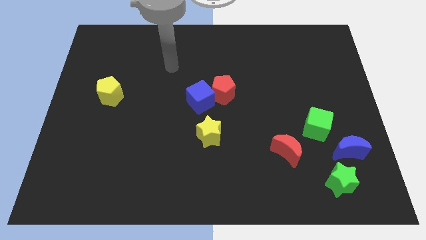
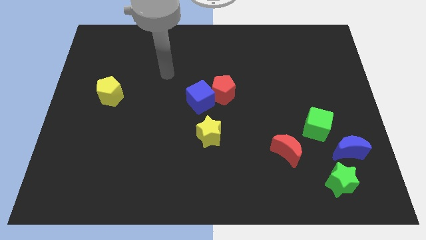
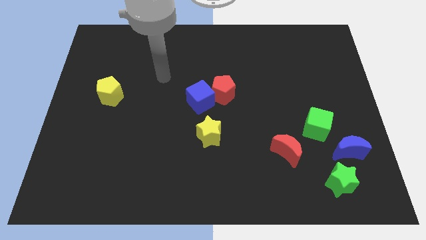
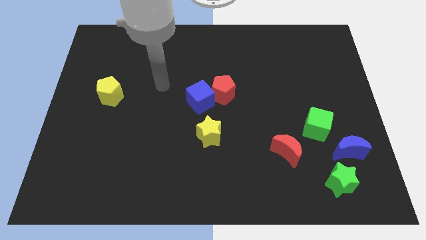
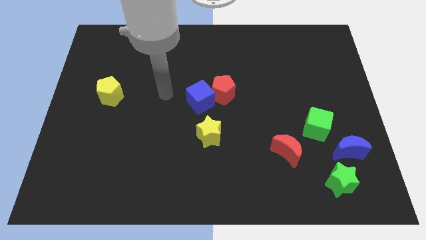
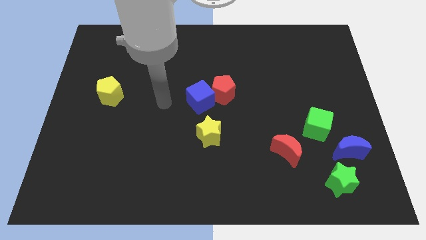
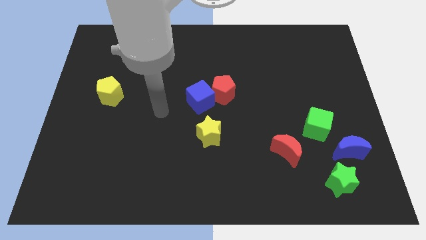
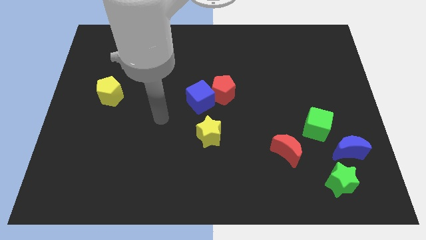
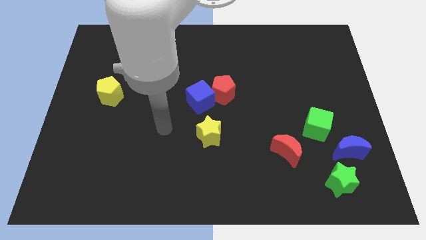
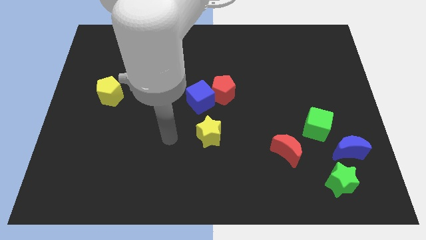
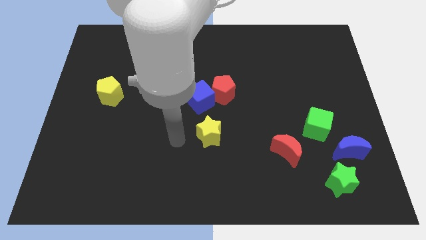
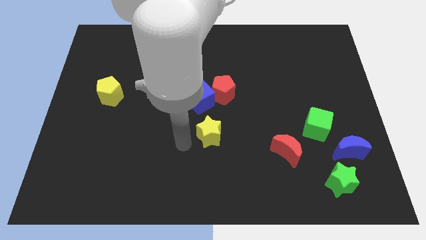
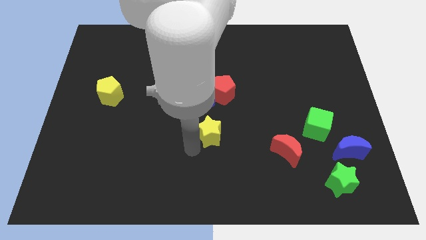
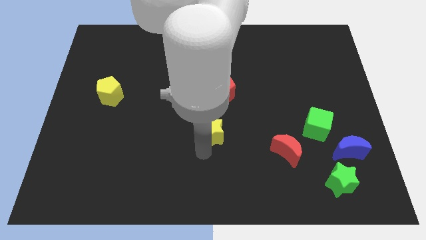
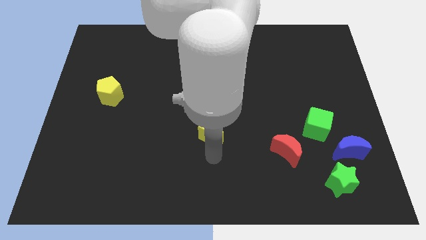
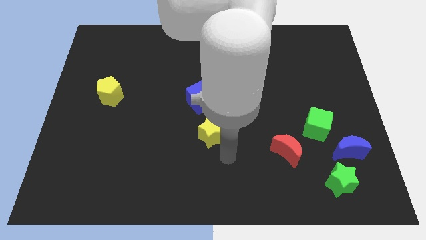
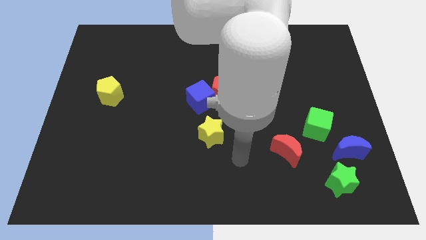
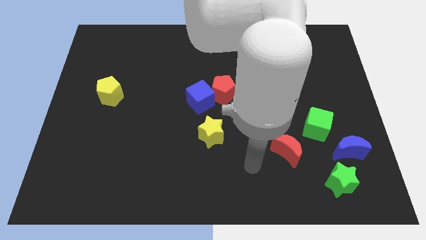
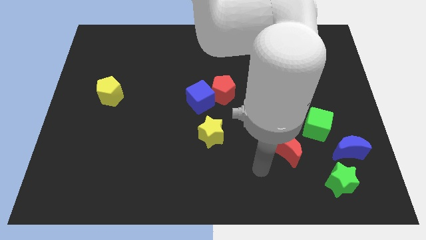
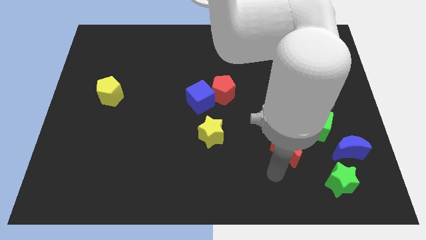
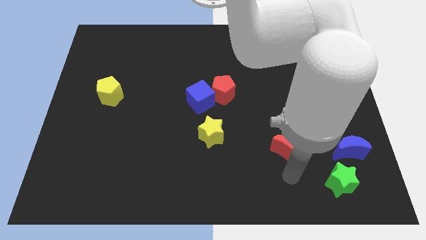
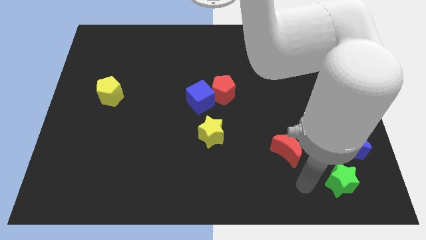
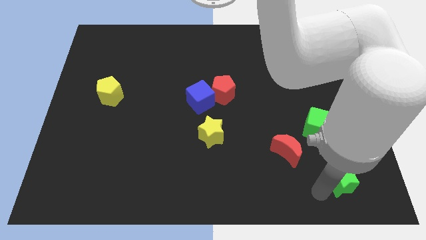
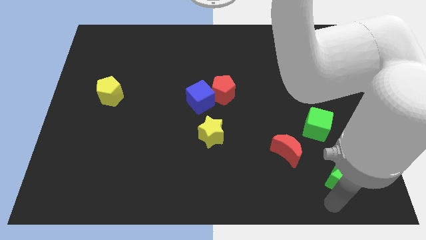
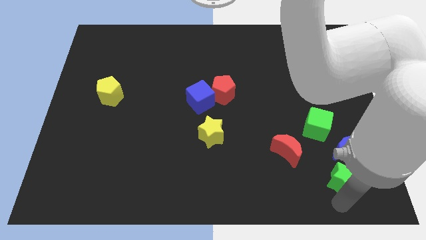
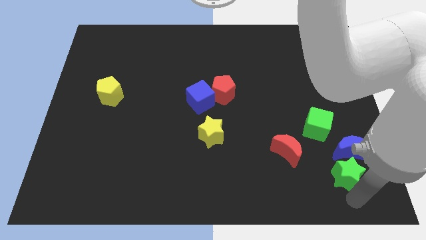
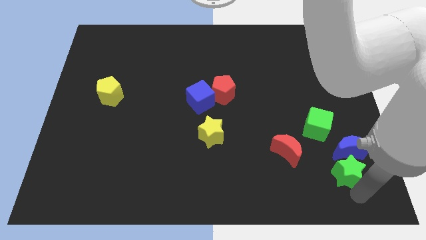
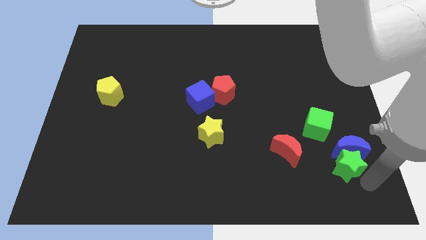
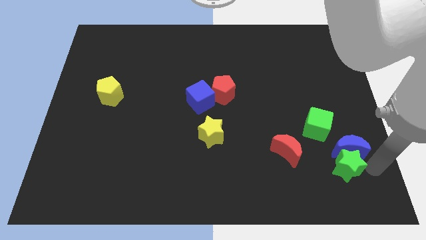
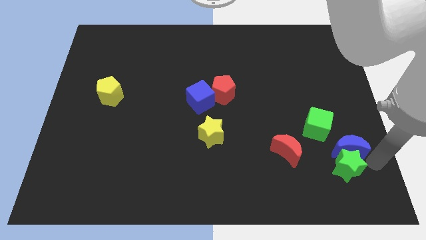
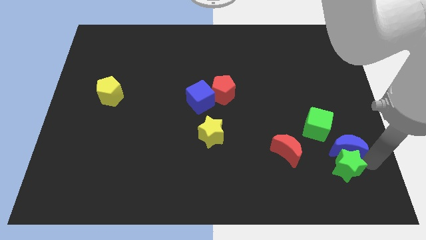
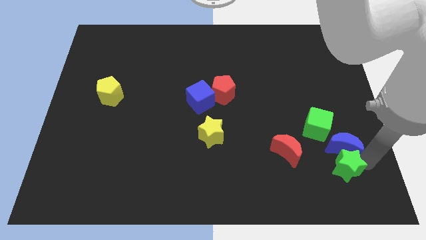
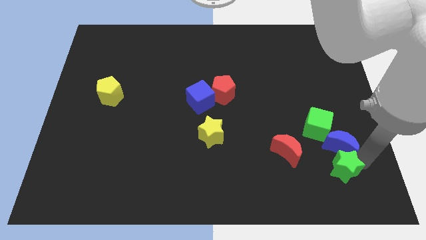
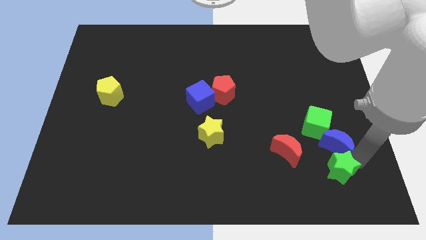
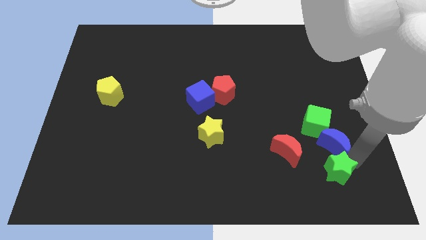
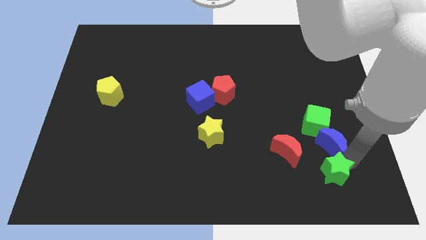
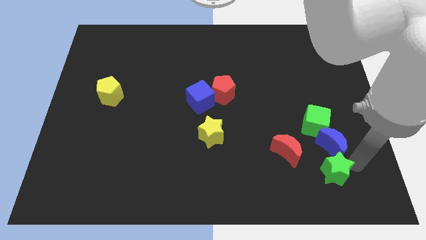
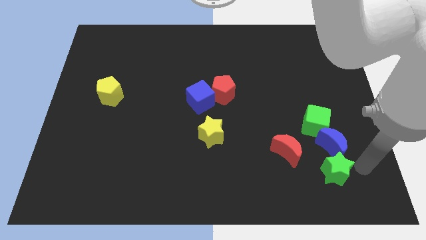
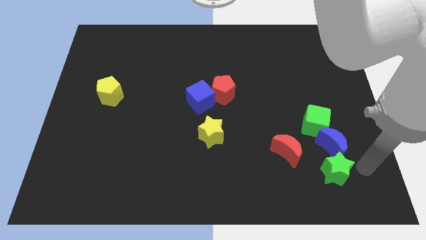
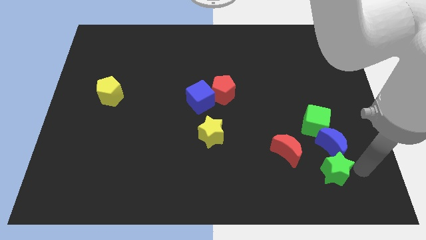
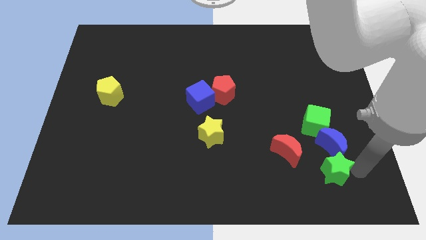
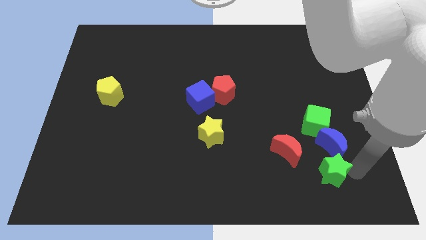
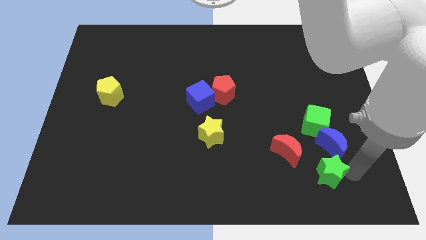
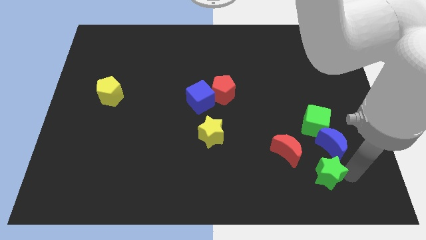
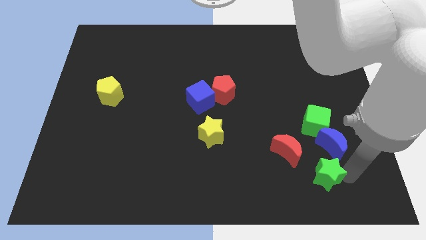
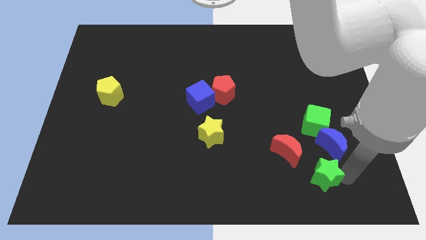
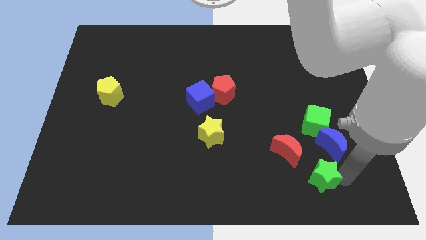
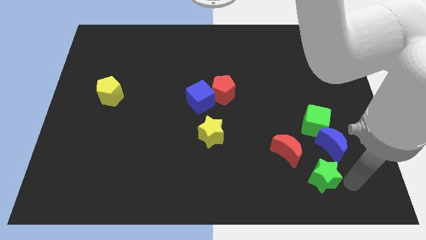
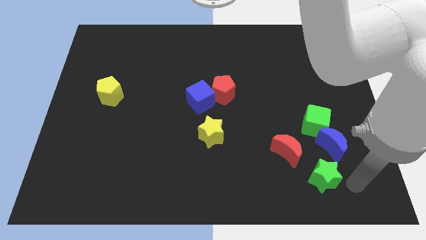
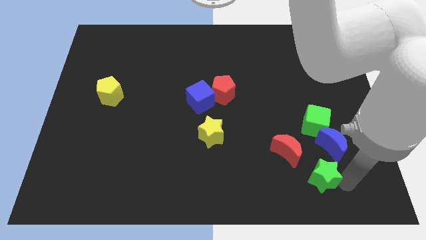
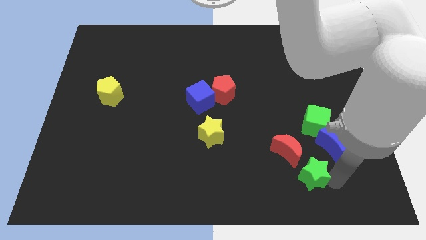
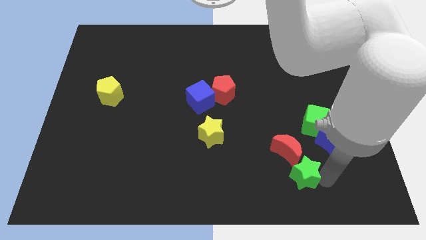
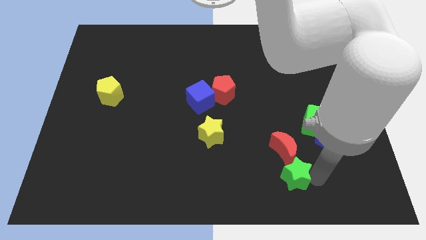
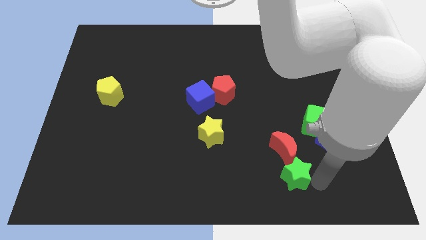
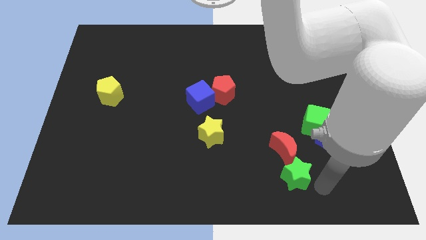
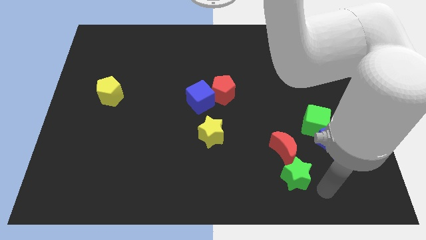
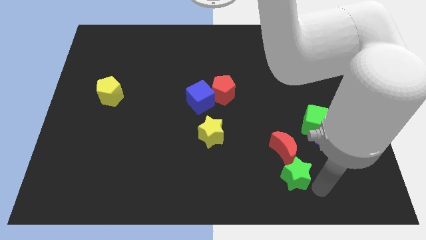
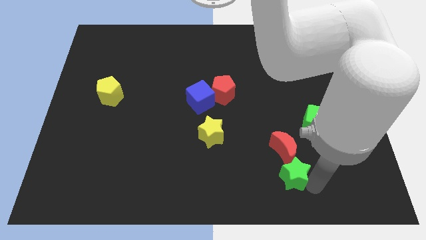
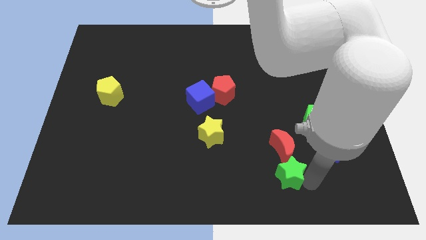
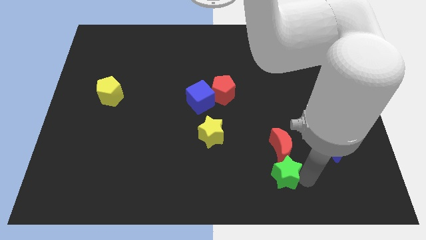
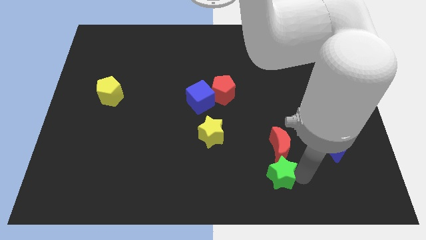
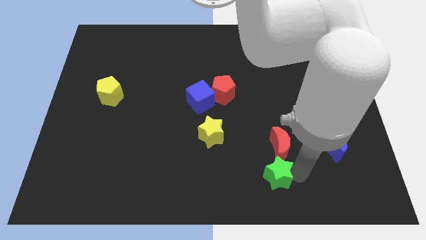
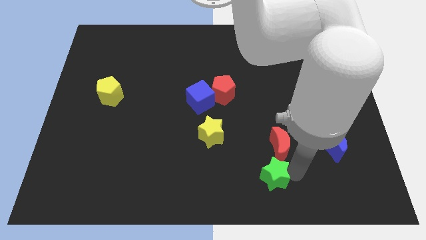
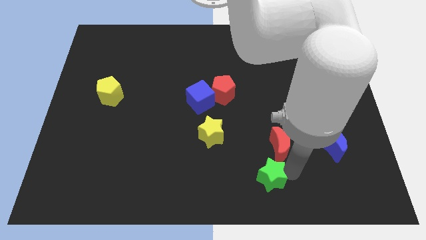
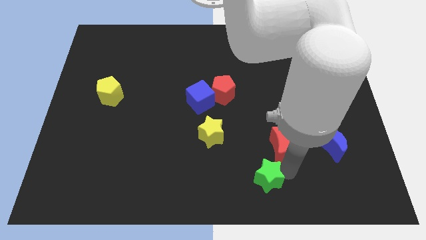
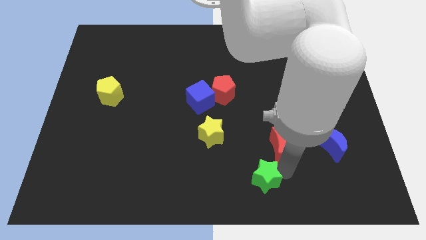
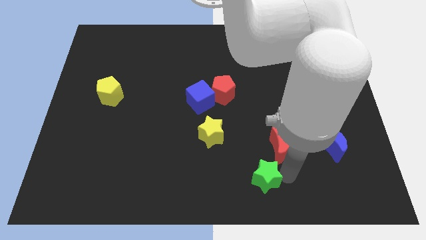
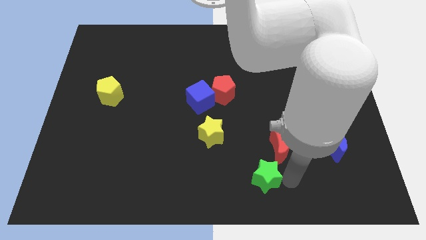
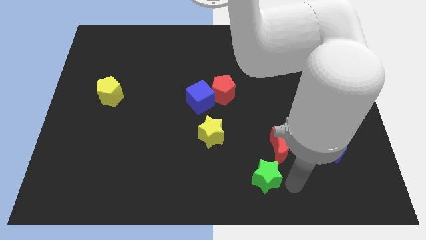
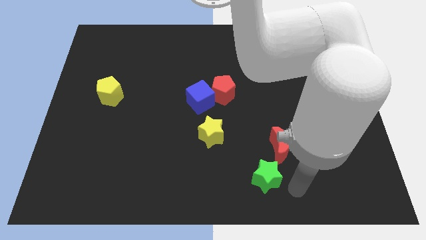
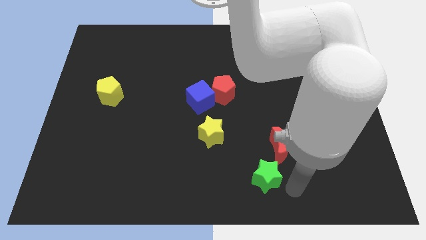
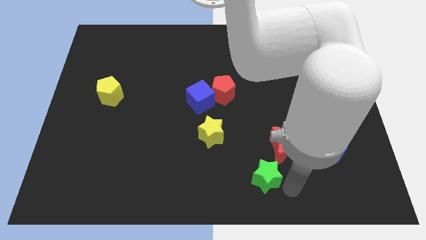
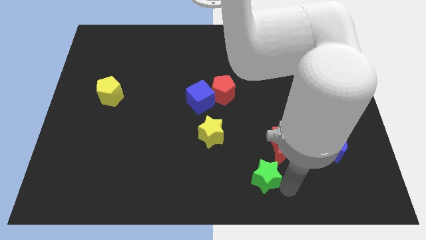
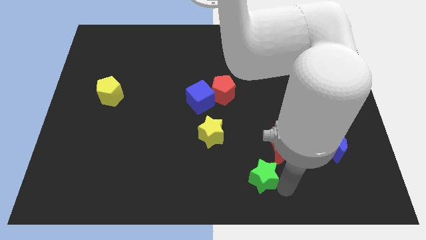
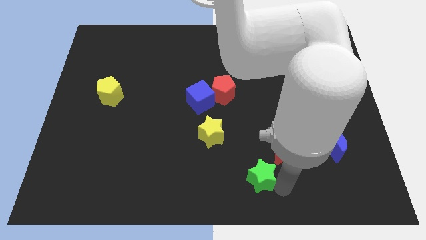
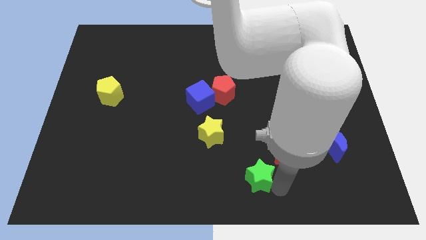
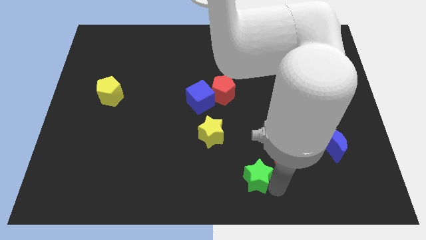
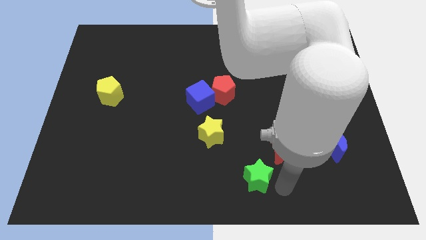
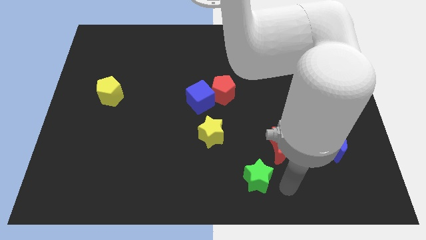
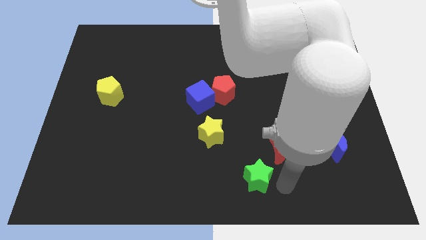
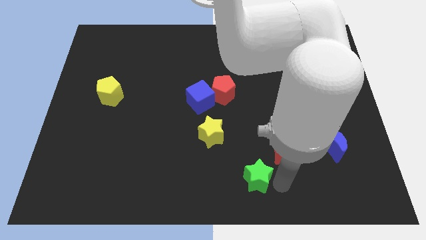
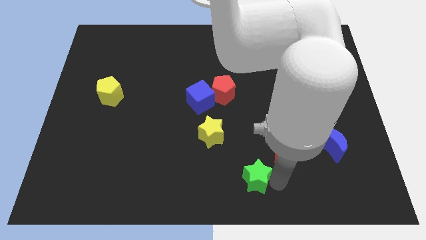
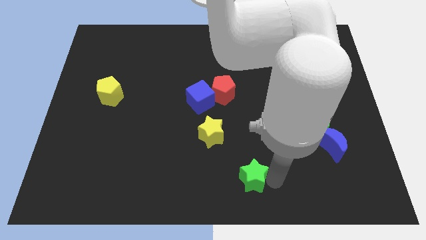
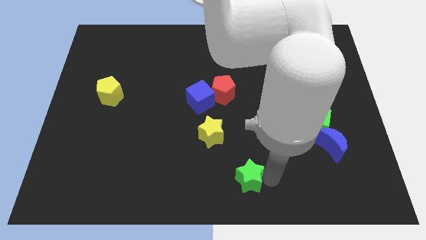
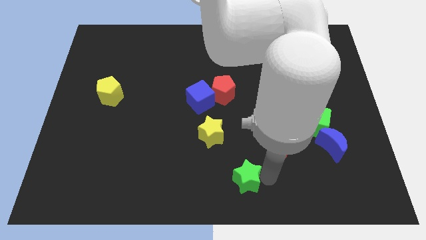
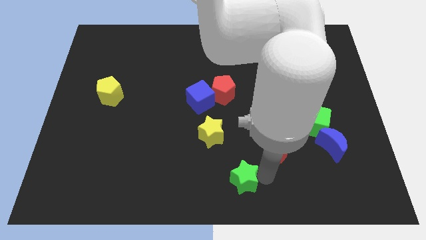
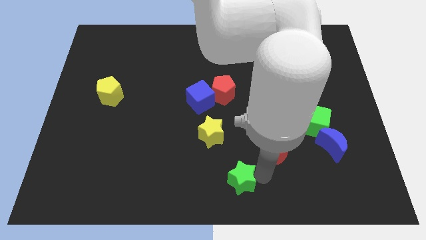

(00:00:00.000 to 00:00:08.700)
push the green star to the left
